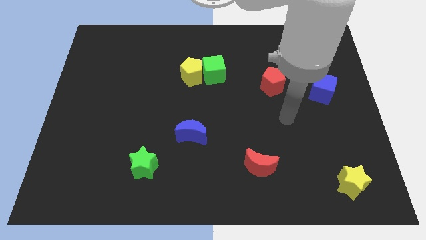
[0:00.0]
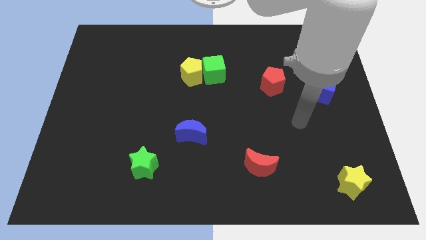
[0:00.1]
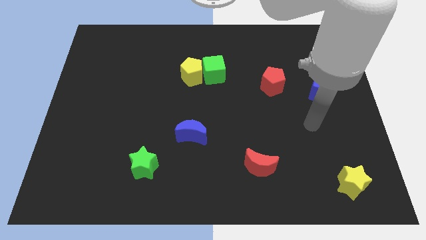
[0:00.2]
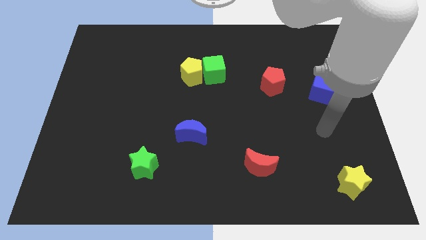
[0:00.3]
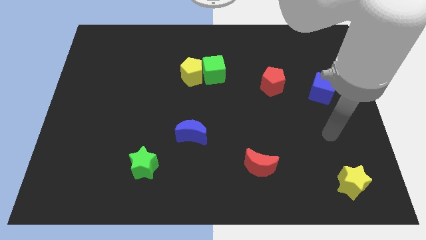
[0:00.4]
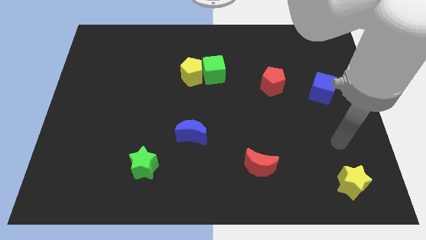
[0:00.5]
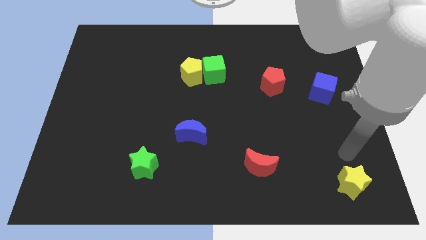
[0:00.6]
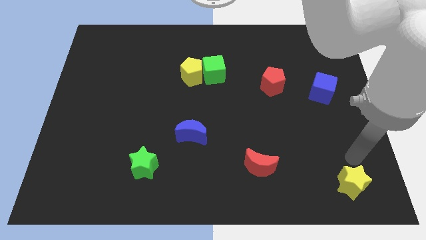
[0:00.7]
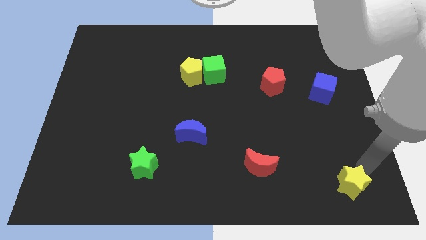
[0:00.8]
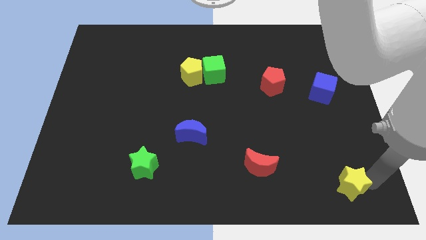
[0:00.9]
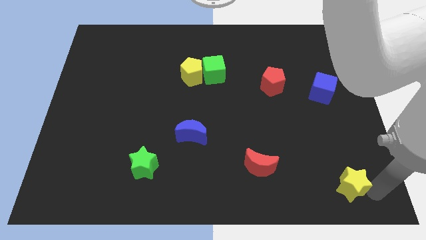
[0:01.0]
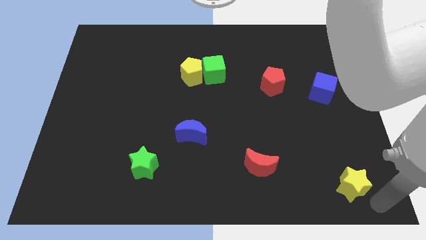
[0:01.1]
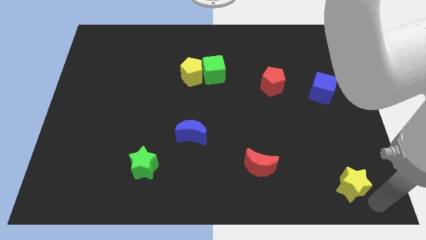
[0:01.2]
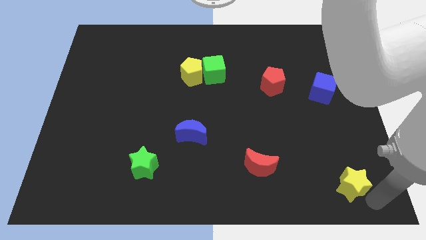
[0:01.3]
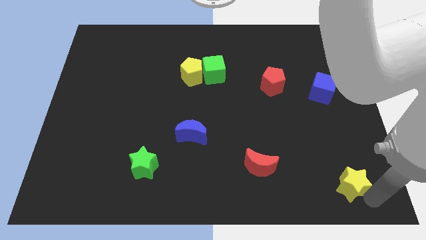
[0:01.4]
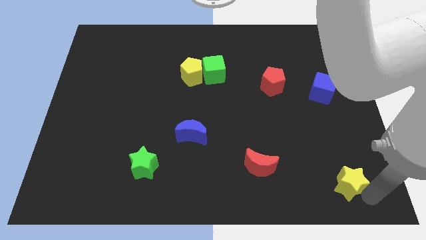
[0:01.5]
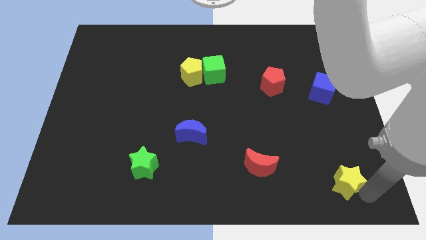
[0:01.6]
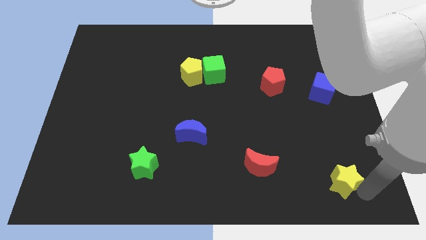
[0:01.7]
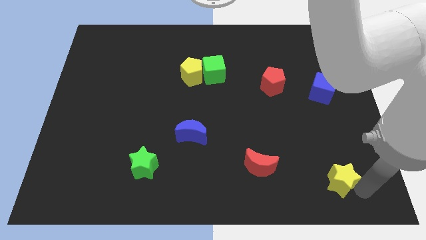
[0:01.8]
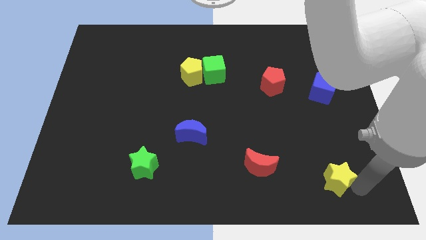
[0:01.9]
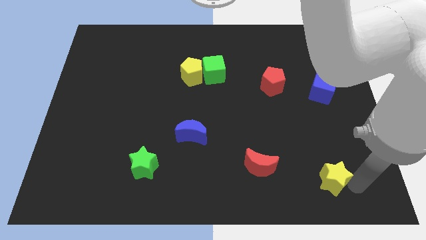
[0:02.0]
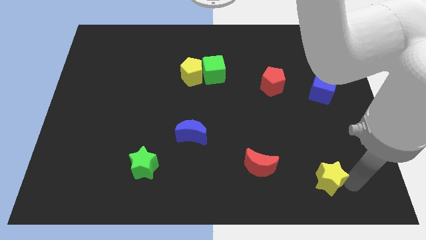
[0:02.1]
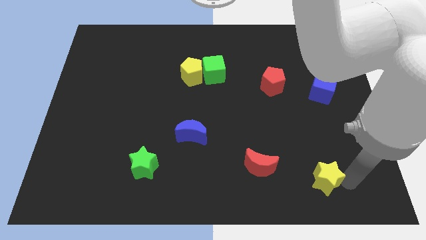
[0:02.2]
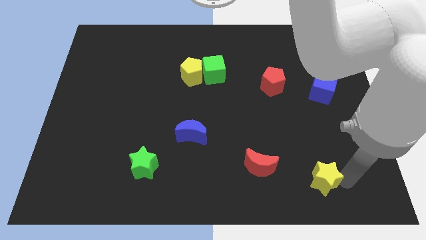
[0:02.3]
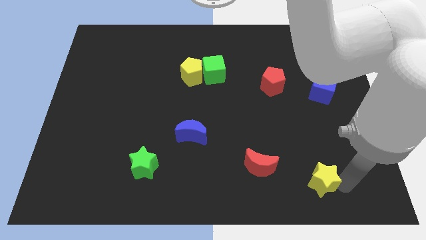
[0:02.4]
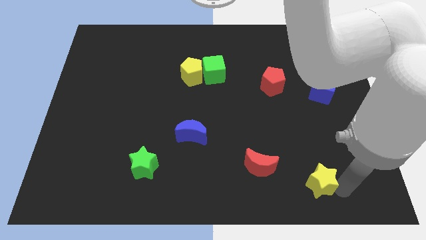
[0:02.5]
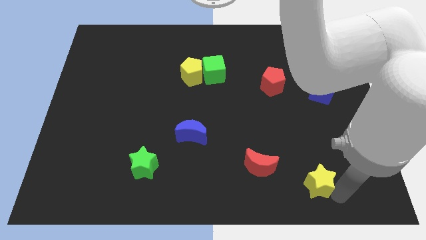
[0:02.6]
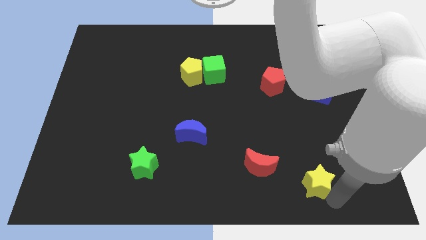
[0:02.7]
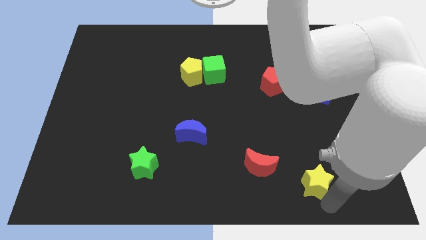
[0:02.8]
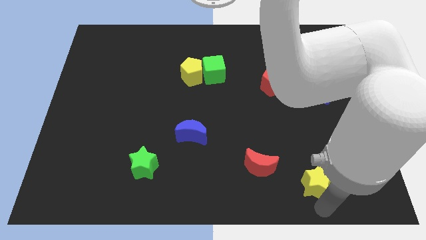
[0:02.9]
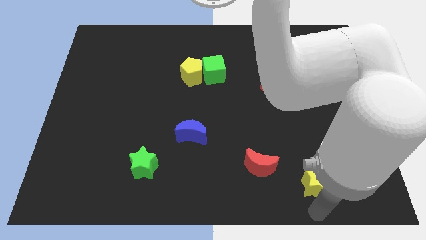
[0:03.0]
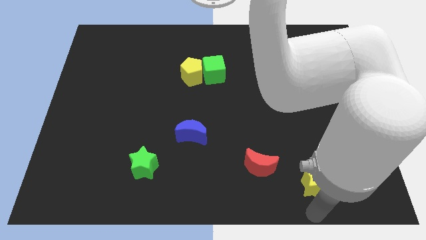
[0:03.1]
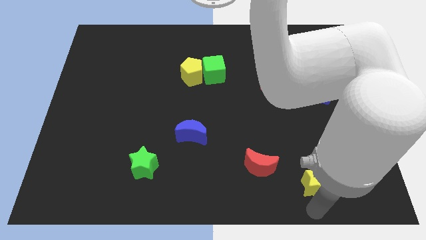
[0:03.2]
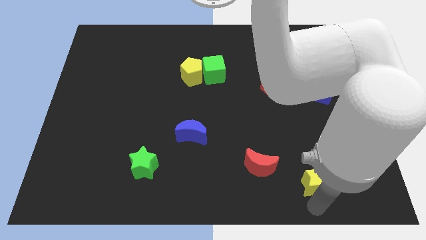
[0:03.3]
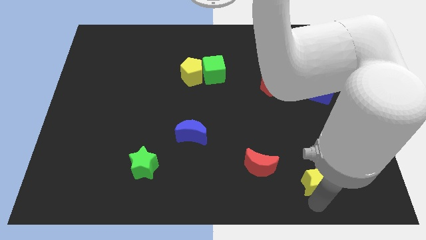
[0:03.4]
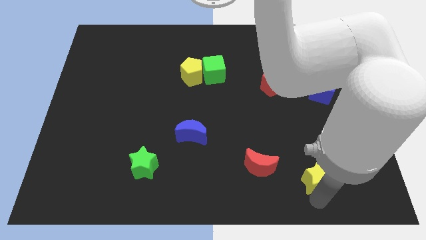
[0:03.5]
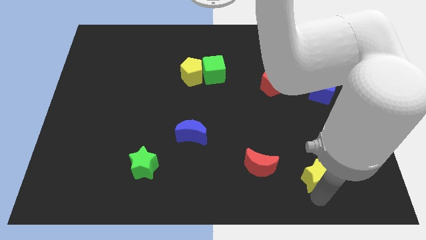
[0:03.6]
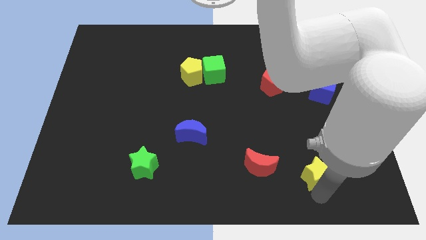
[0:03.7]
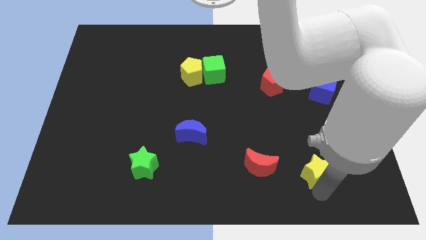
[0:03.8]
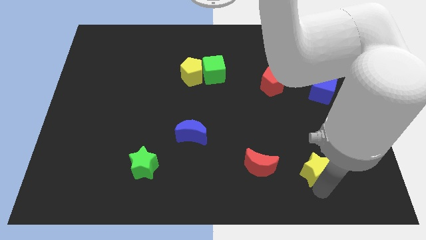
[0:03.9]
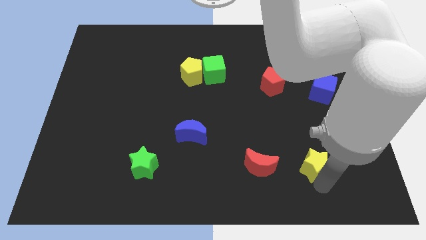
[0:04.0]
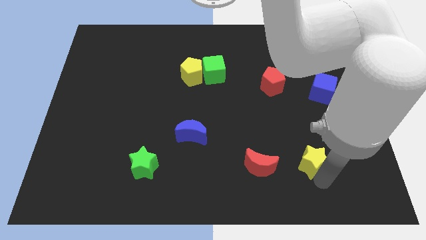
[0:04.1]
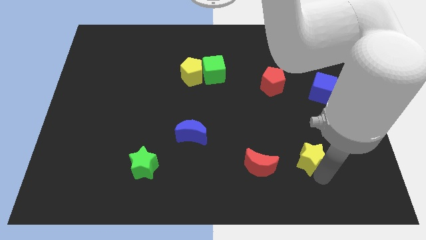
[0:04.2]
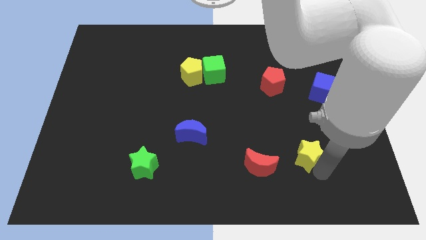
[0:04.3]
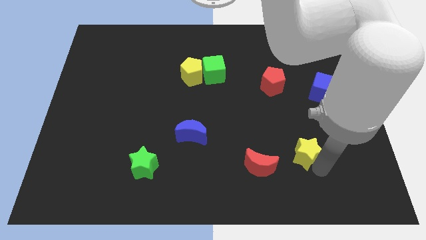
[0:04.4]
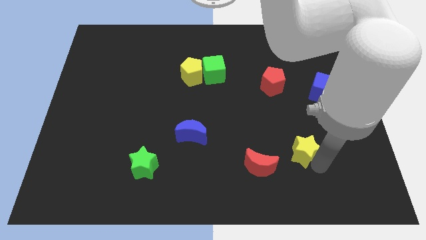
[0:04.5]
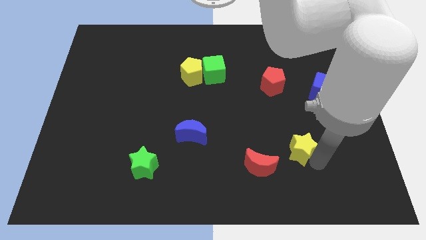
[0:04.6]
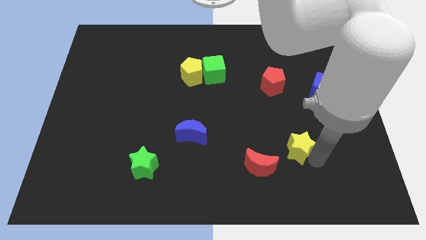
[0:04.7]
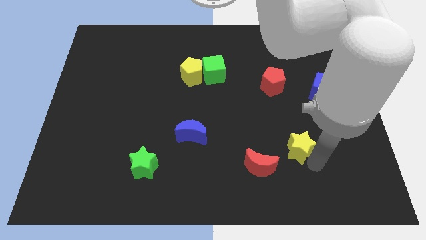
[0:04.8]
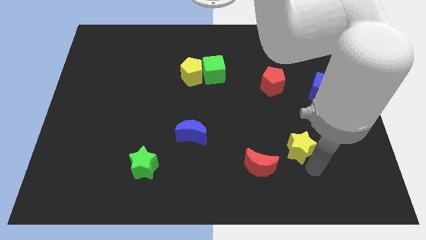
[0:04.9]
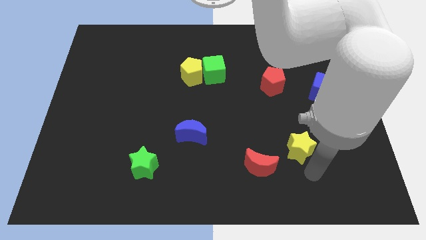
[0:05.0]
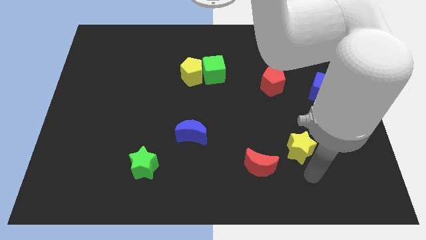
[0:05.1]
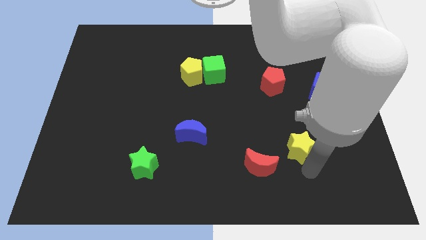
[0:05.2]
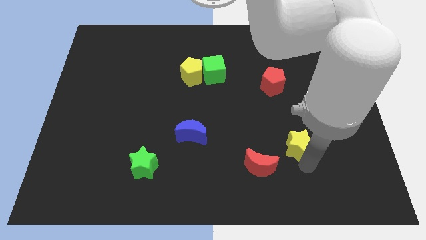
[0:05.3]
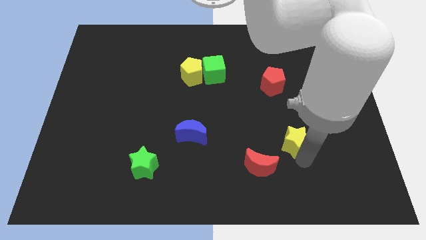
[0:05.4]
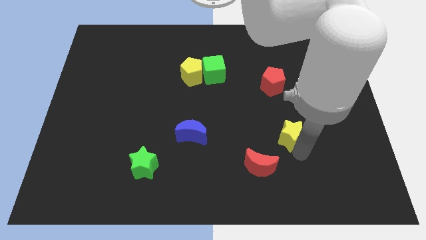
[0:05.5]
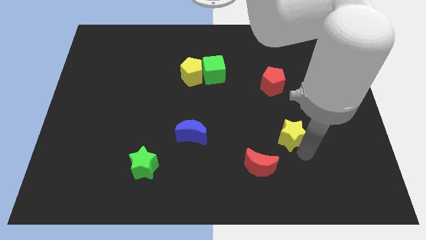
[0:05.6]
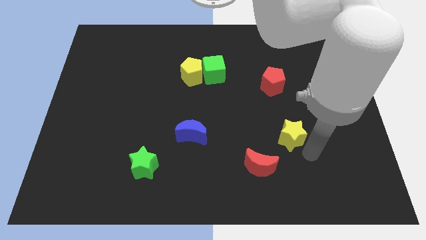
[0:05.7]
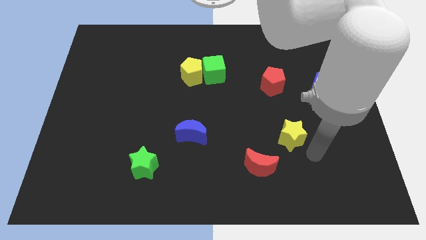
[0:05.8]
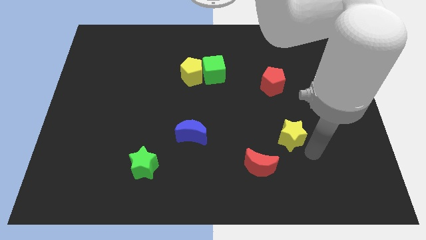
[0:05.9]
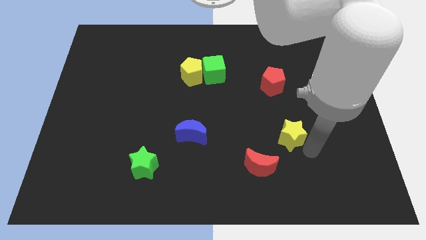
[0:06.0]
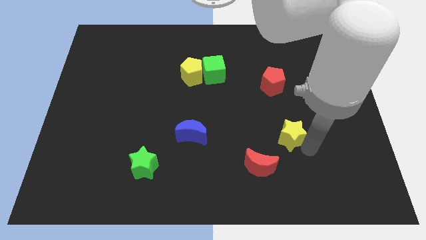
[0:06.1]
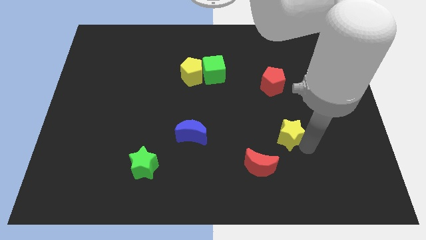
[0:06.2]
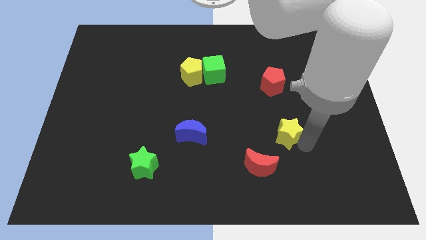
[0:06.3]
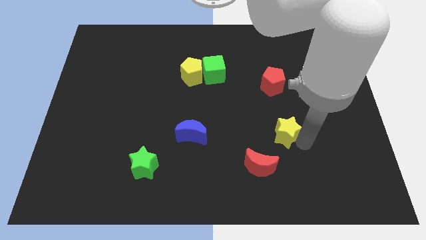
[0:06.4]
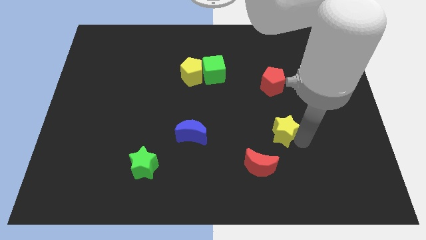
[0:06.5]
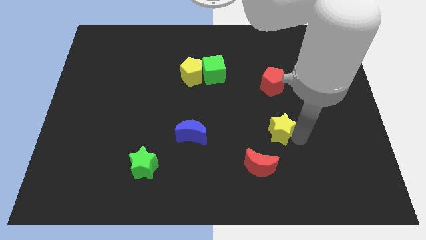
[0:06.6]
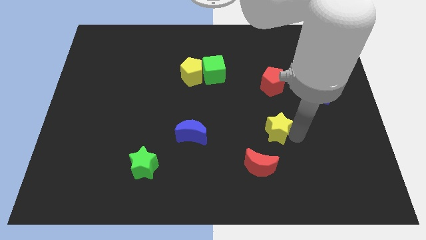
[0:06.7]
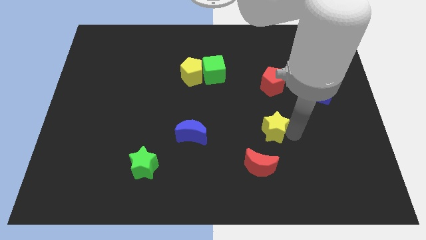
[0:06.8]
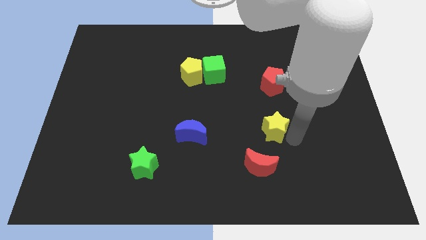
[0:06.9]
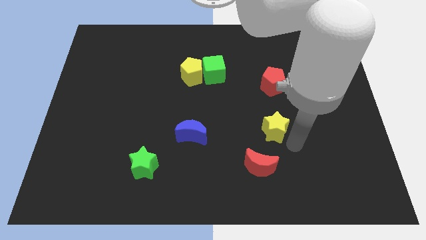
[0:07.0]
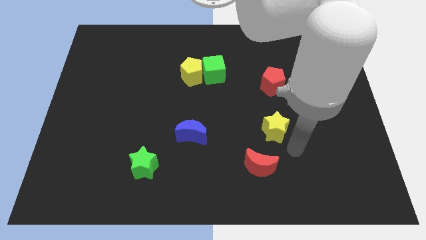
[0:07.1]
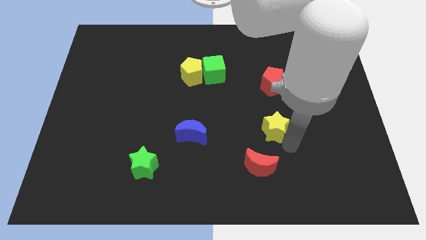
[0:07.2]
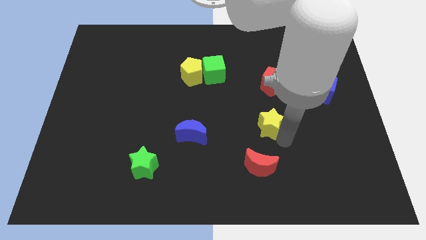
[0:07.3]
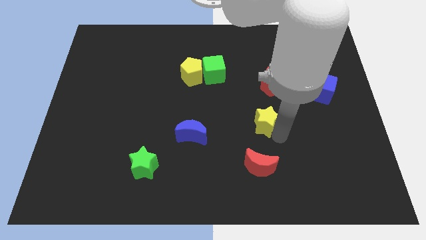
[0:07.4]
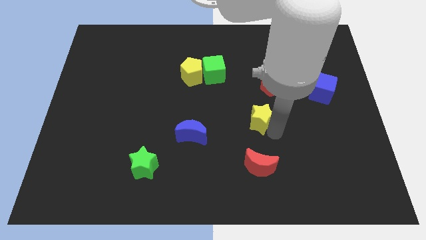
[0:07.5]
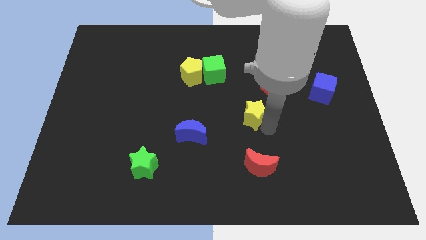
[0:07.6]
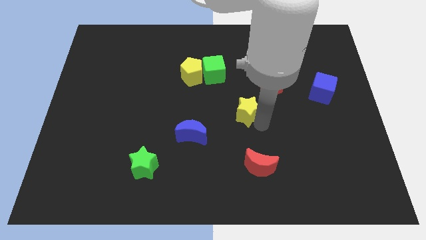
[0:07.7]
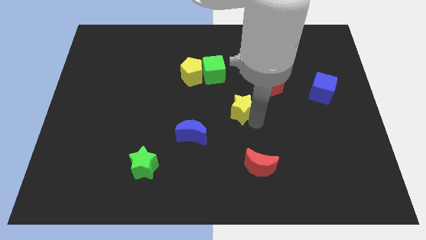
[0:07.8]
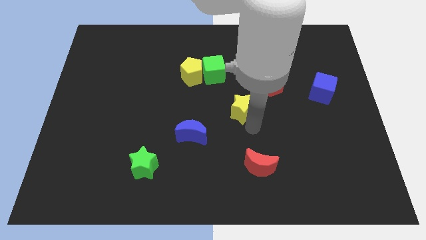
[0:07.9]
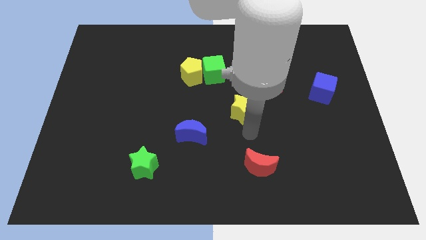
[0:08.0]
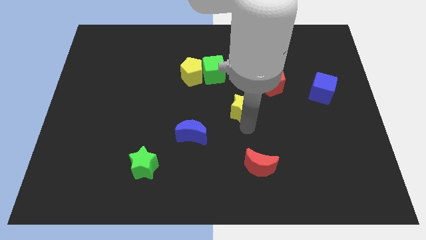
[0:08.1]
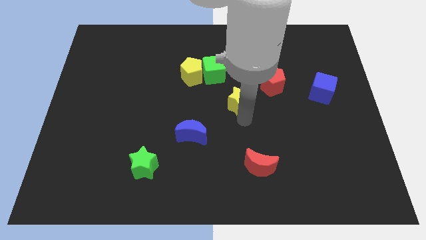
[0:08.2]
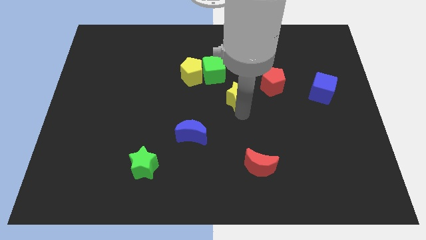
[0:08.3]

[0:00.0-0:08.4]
slide the yellow star to the left of the red pentagon
